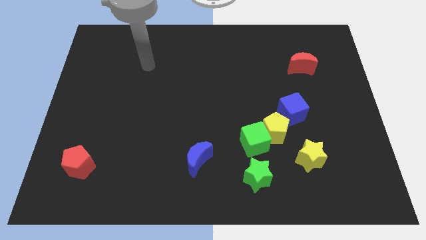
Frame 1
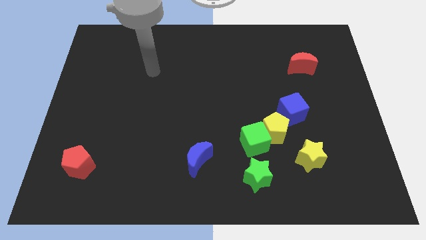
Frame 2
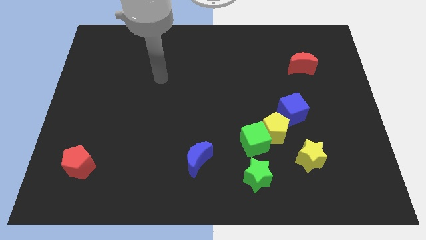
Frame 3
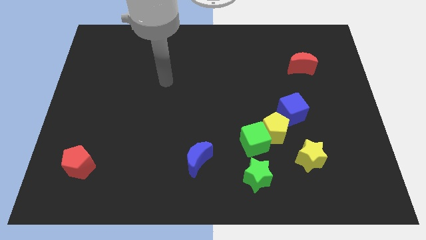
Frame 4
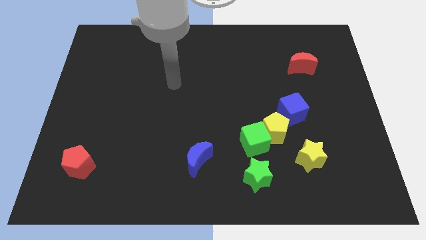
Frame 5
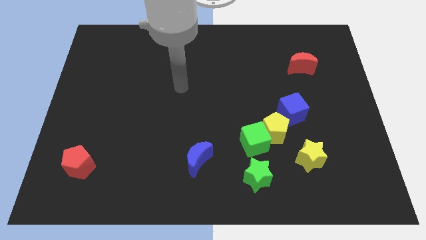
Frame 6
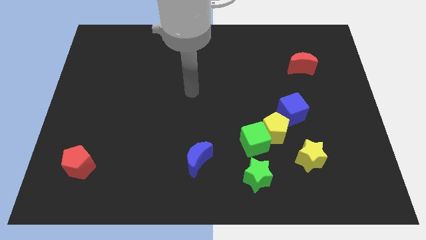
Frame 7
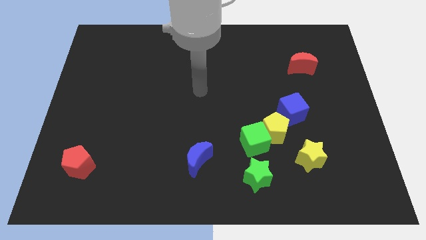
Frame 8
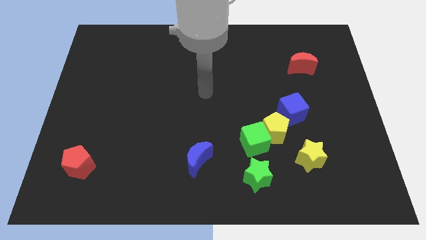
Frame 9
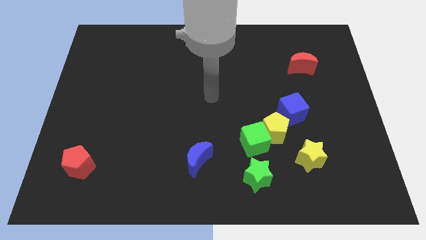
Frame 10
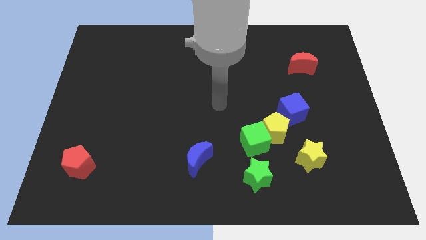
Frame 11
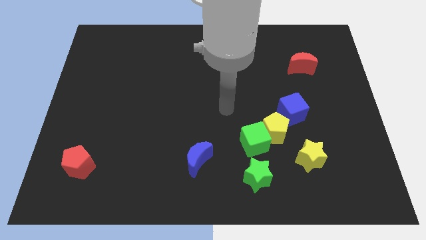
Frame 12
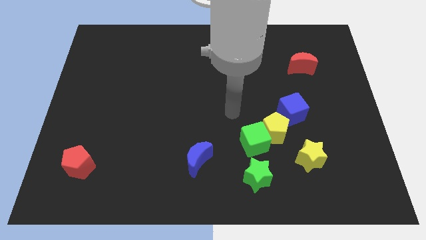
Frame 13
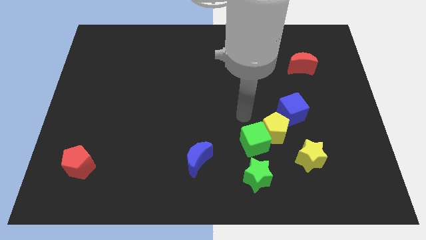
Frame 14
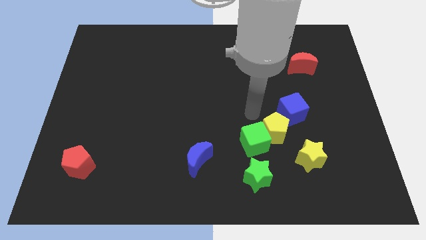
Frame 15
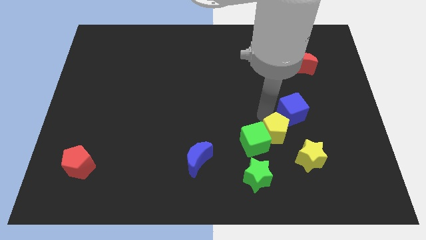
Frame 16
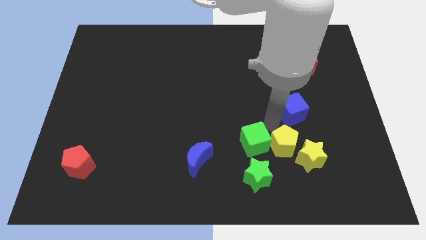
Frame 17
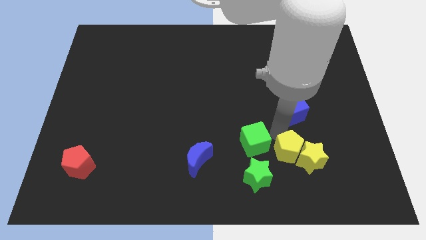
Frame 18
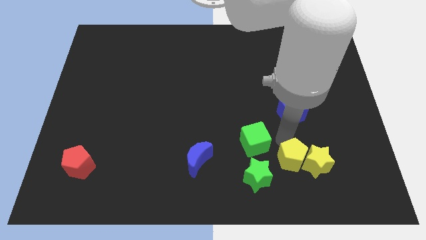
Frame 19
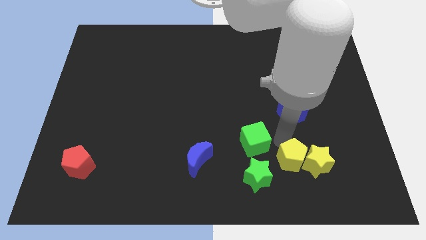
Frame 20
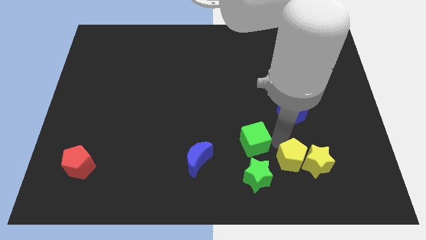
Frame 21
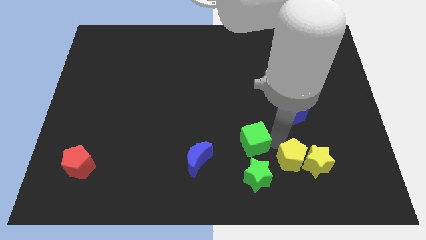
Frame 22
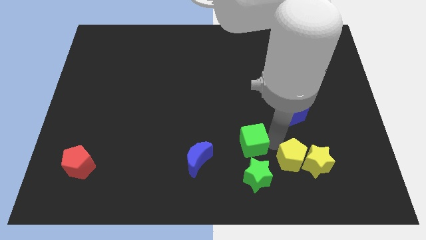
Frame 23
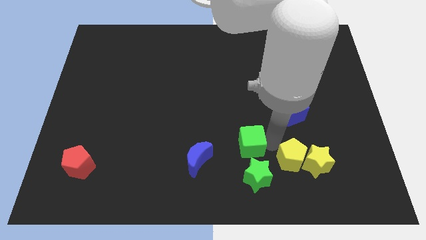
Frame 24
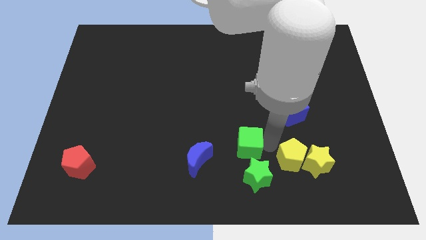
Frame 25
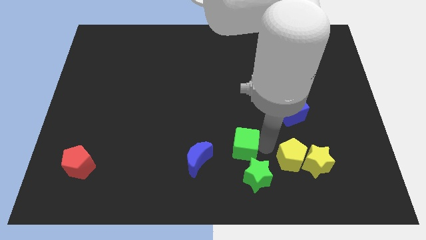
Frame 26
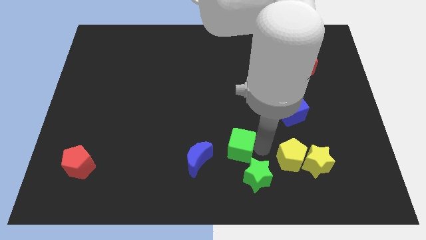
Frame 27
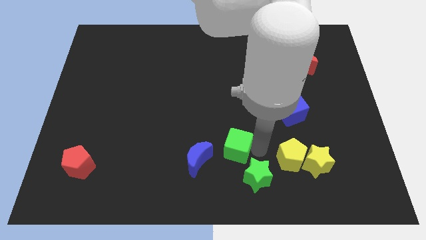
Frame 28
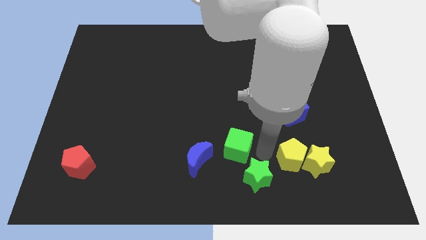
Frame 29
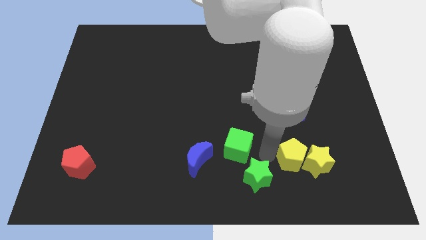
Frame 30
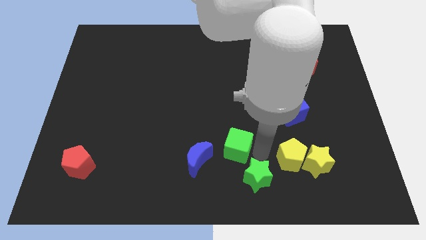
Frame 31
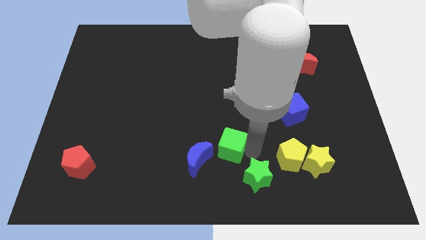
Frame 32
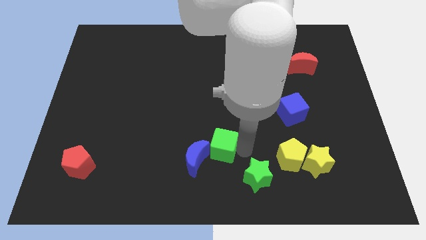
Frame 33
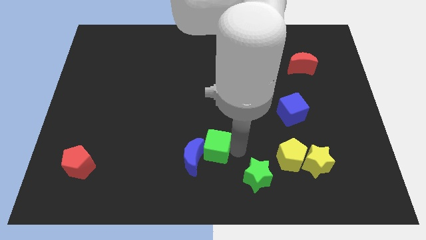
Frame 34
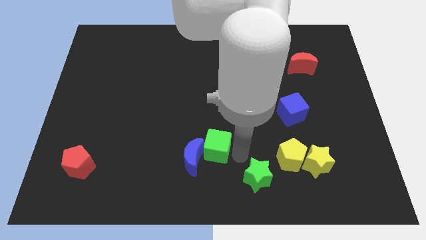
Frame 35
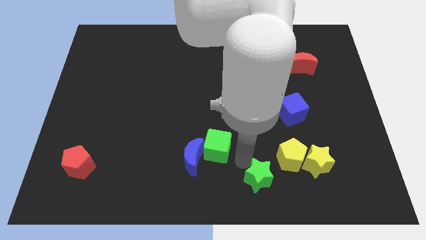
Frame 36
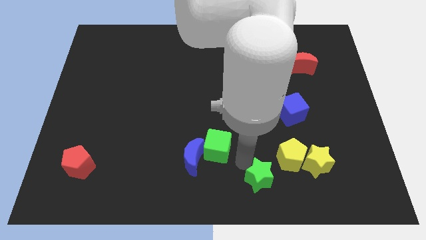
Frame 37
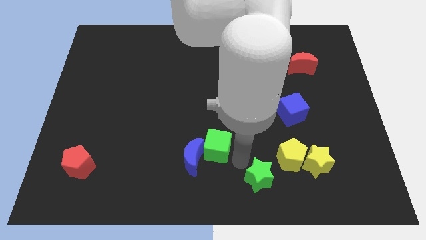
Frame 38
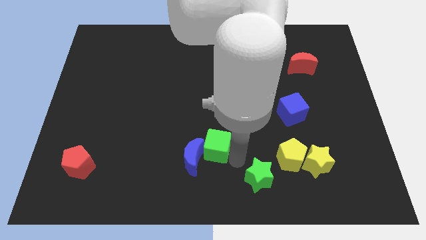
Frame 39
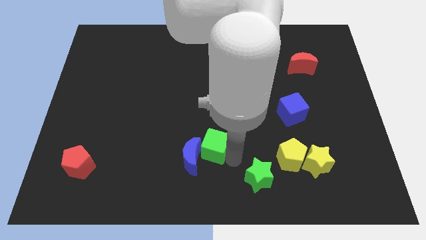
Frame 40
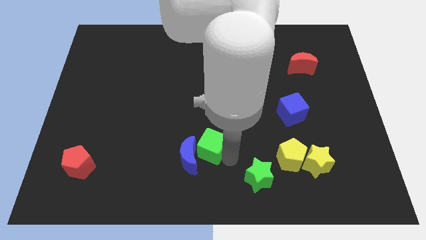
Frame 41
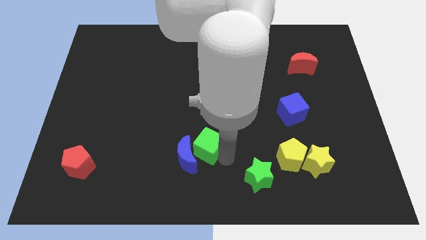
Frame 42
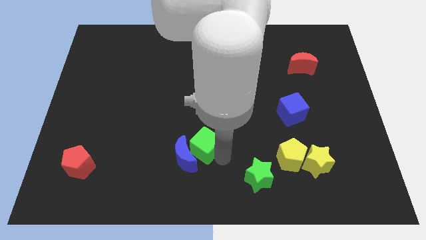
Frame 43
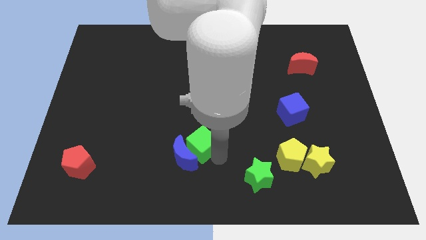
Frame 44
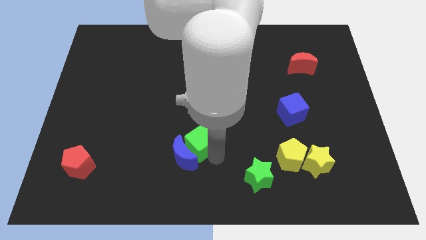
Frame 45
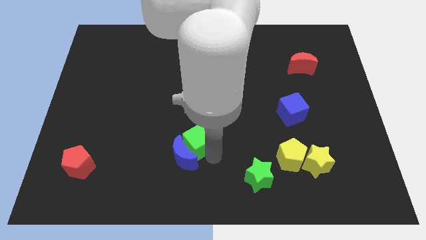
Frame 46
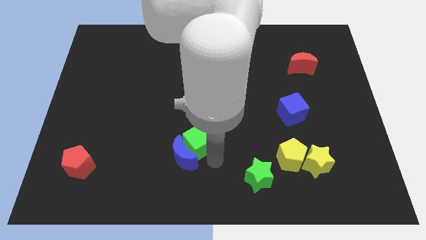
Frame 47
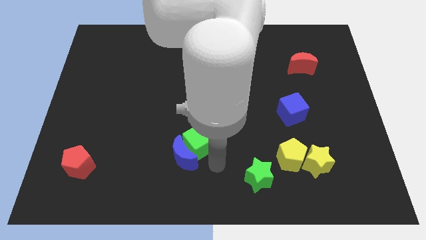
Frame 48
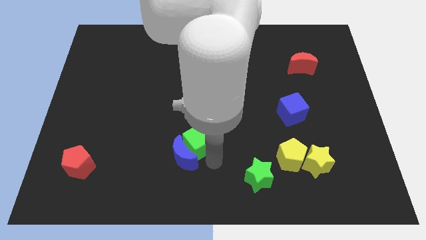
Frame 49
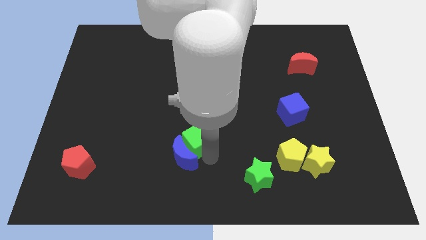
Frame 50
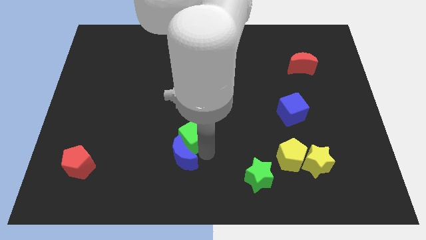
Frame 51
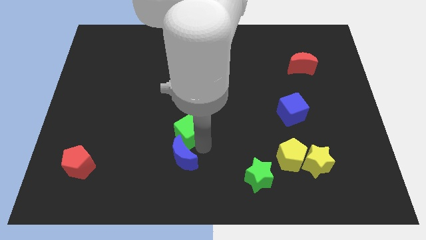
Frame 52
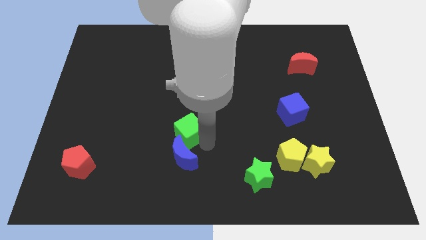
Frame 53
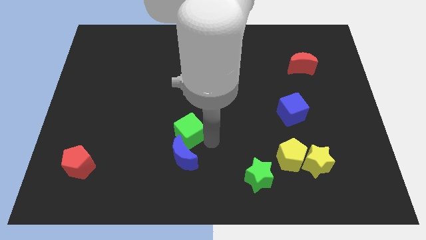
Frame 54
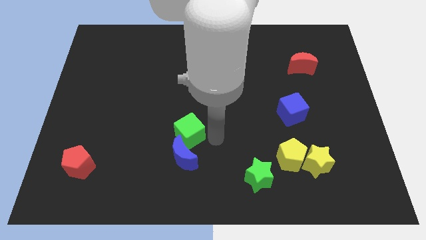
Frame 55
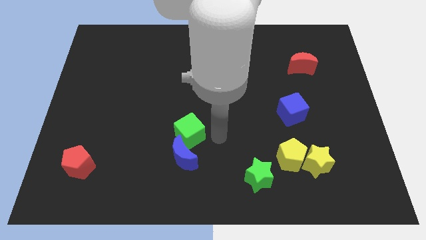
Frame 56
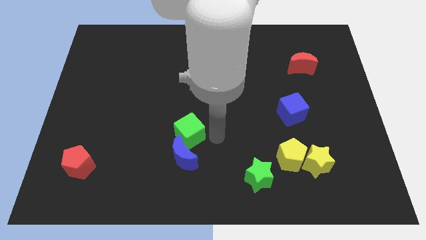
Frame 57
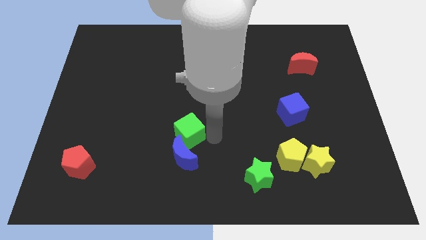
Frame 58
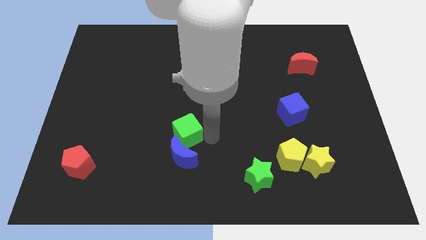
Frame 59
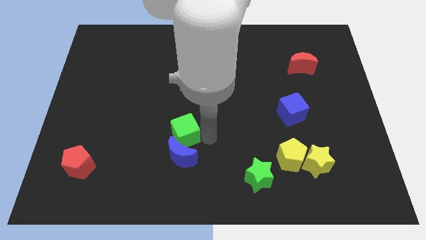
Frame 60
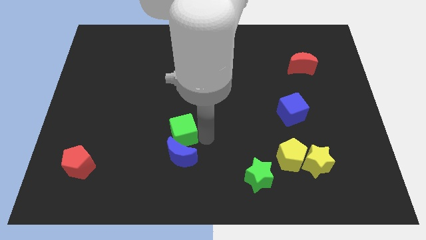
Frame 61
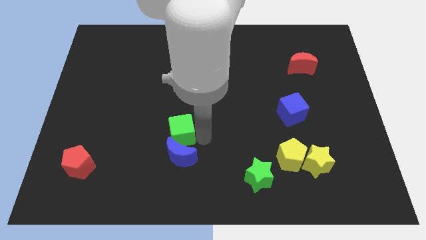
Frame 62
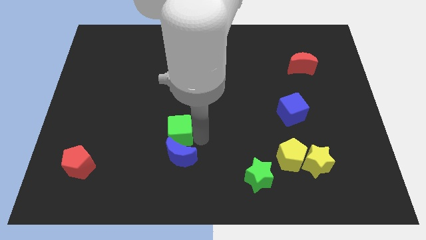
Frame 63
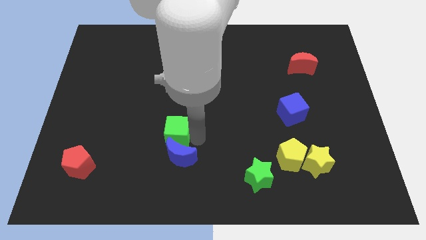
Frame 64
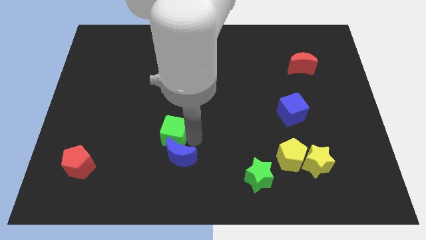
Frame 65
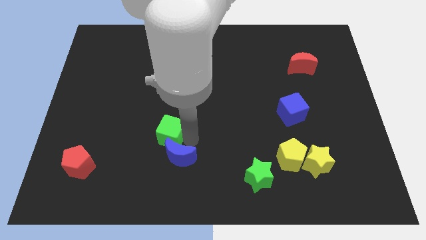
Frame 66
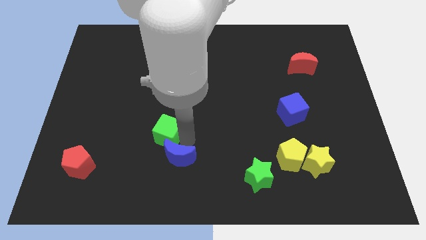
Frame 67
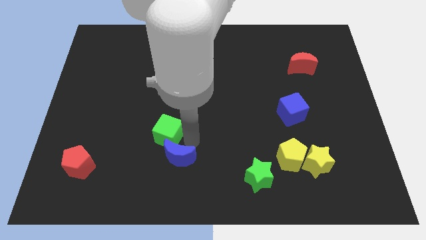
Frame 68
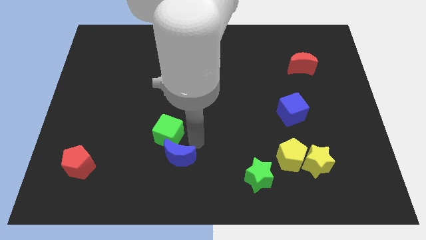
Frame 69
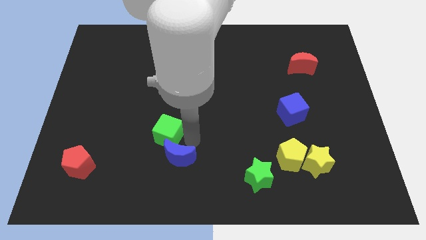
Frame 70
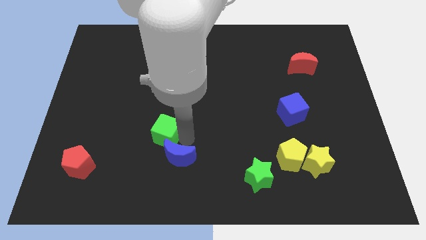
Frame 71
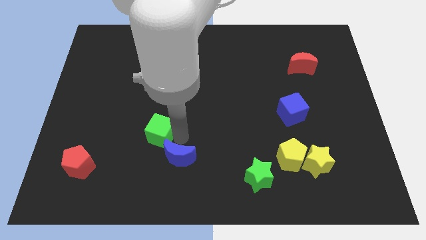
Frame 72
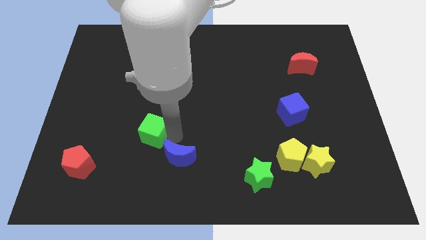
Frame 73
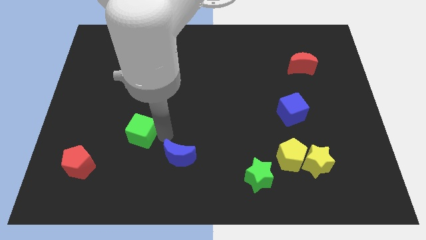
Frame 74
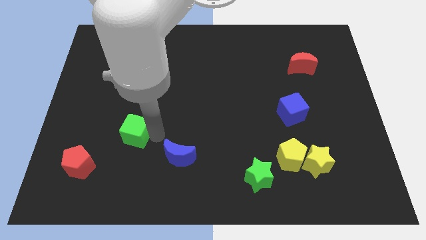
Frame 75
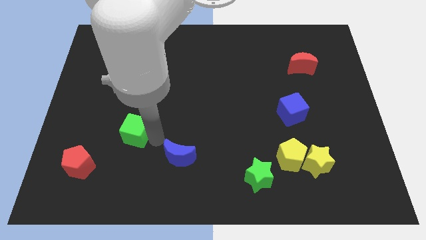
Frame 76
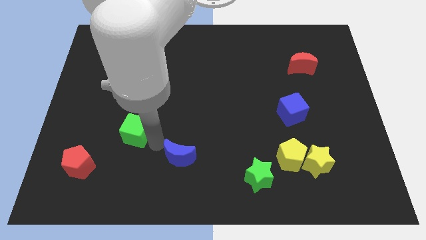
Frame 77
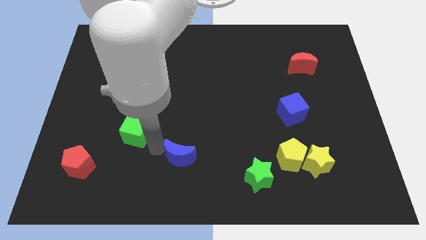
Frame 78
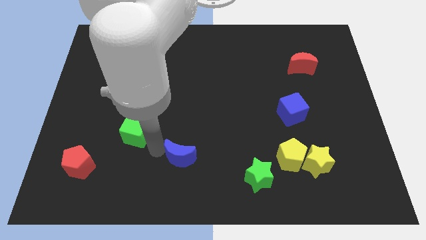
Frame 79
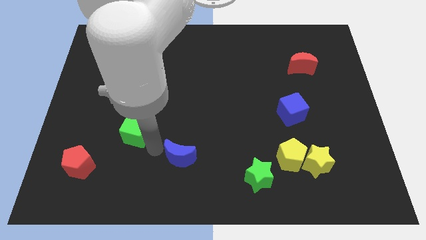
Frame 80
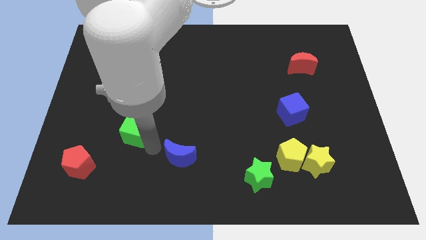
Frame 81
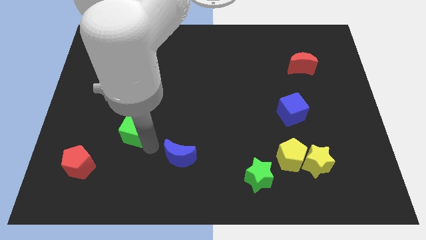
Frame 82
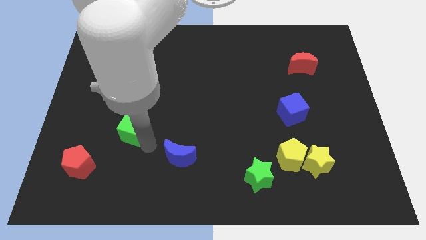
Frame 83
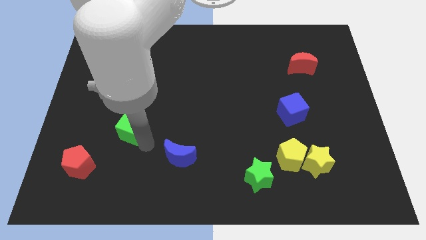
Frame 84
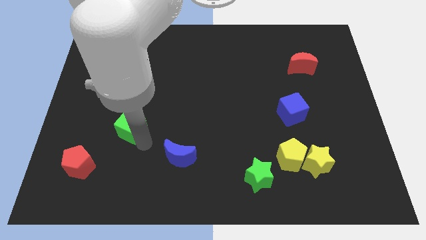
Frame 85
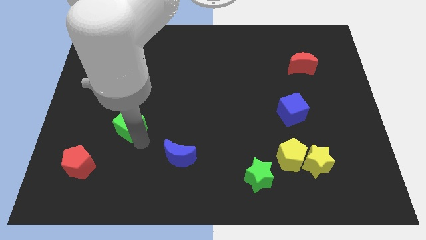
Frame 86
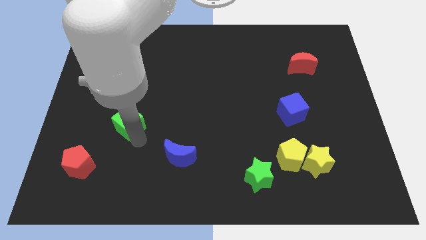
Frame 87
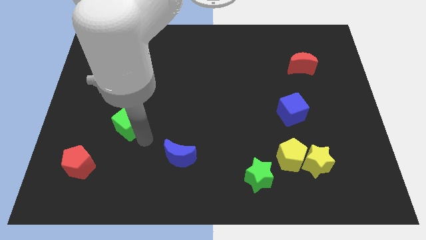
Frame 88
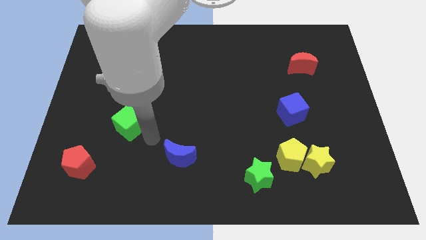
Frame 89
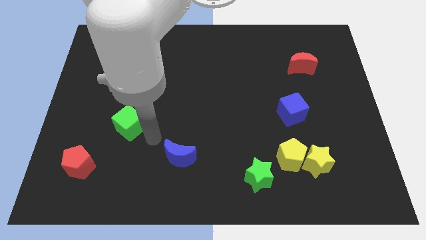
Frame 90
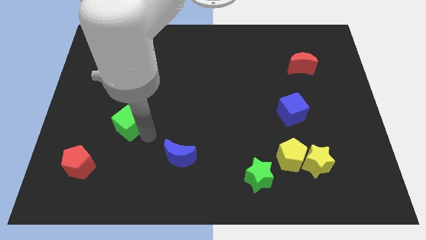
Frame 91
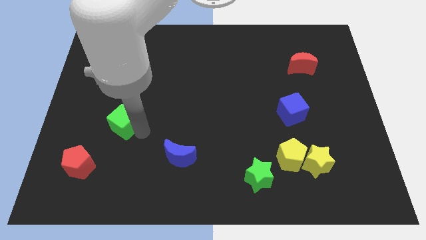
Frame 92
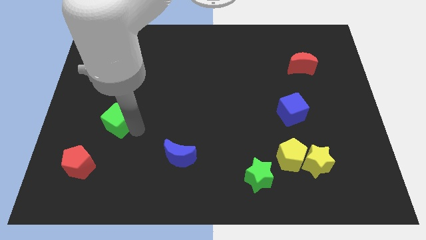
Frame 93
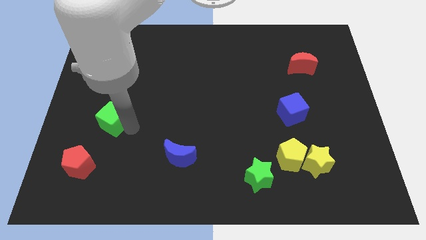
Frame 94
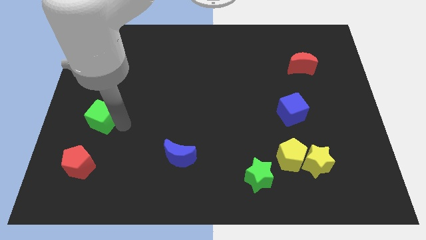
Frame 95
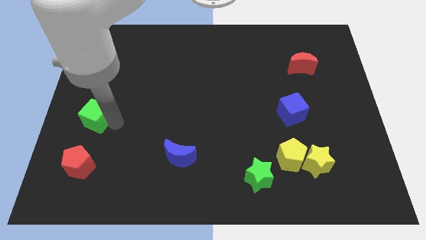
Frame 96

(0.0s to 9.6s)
put the green cube to the left side of the board
